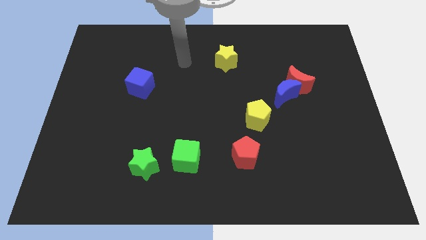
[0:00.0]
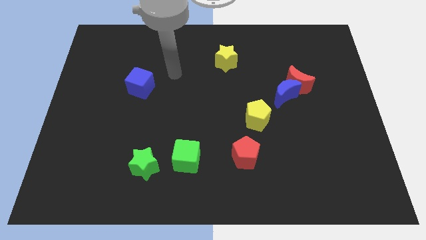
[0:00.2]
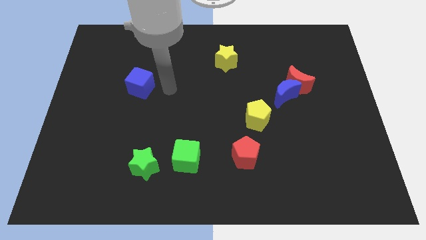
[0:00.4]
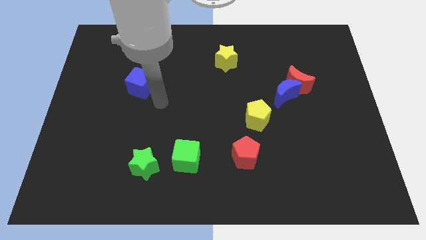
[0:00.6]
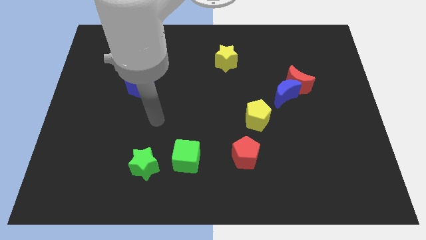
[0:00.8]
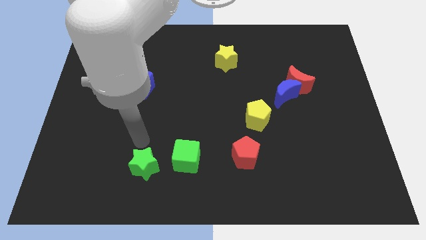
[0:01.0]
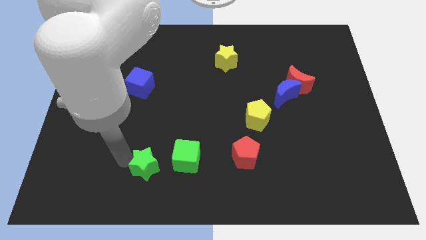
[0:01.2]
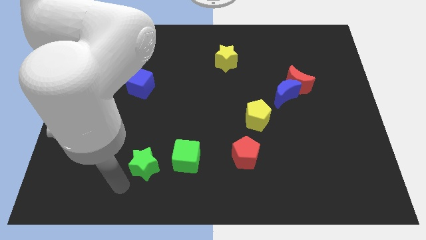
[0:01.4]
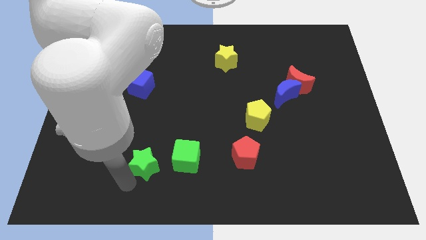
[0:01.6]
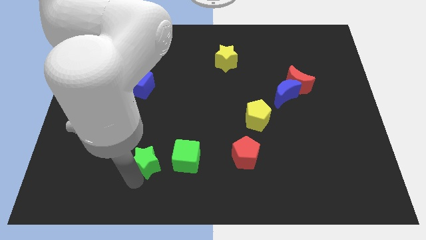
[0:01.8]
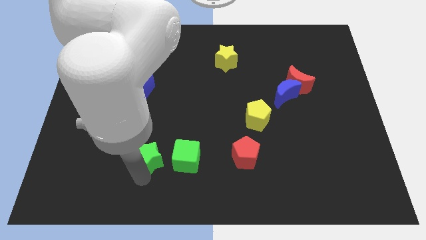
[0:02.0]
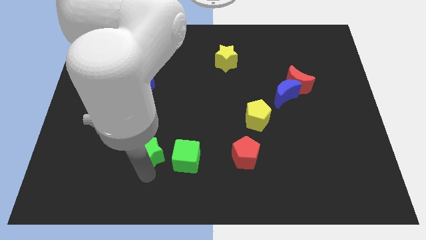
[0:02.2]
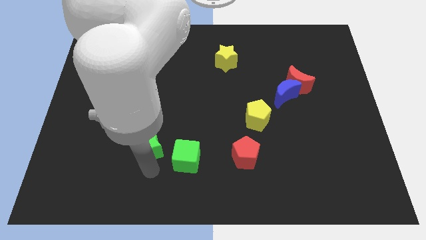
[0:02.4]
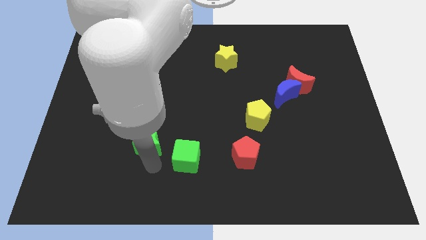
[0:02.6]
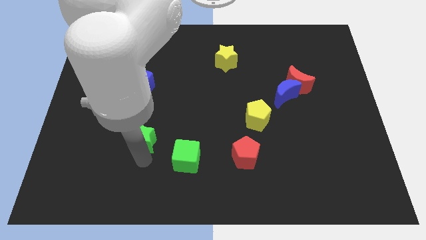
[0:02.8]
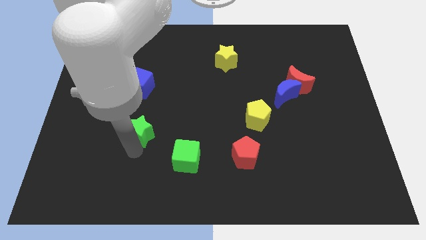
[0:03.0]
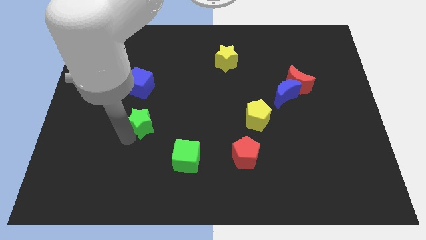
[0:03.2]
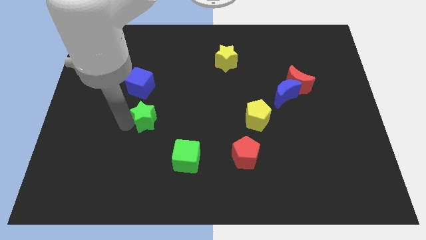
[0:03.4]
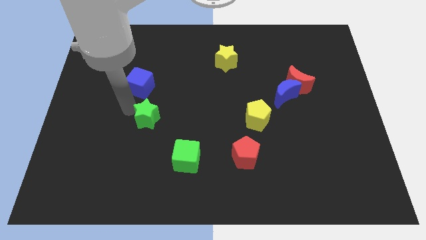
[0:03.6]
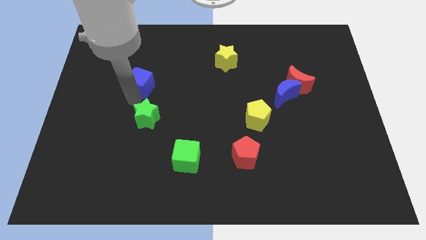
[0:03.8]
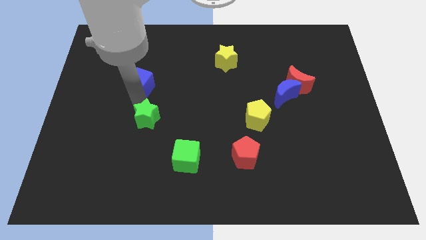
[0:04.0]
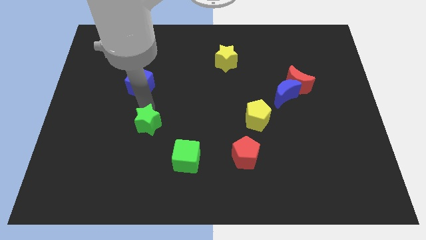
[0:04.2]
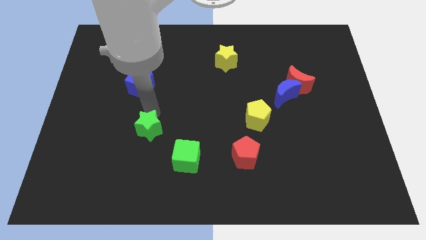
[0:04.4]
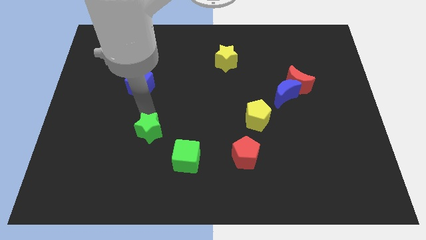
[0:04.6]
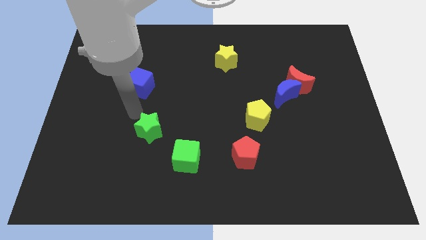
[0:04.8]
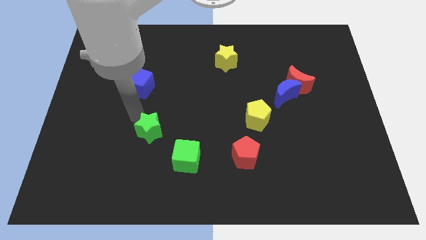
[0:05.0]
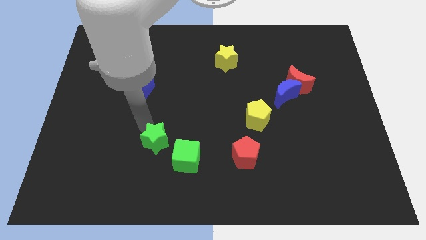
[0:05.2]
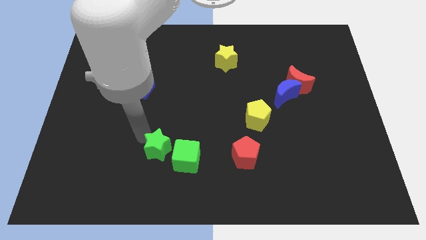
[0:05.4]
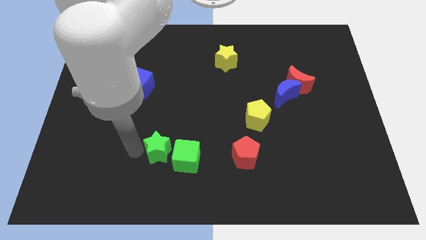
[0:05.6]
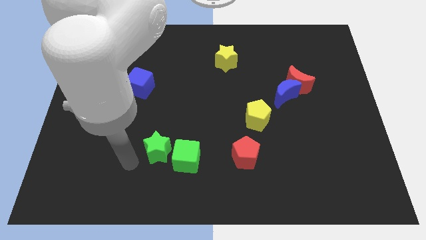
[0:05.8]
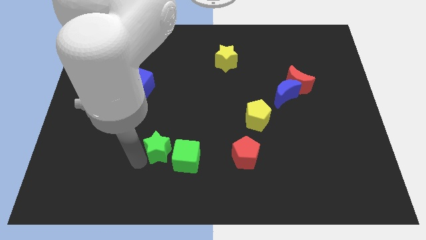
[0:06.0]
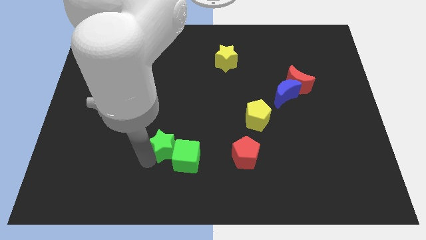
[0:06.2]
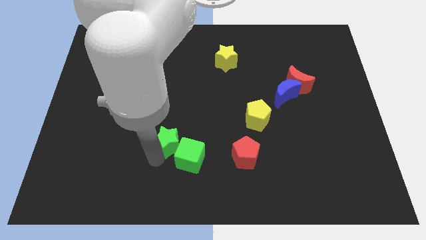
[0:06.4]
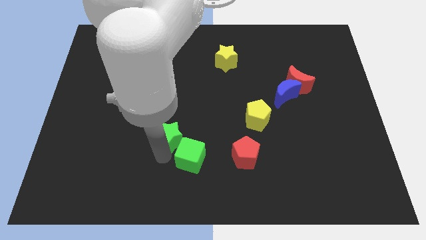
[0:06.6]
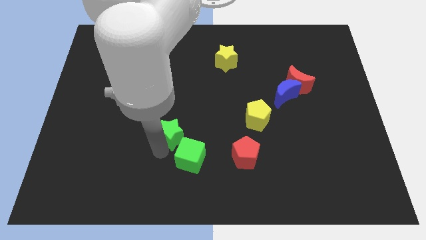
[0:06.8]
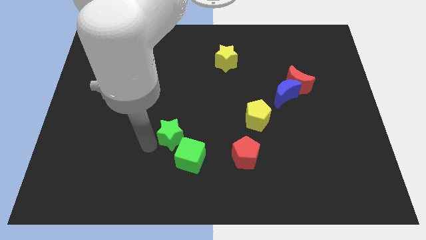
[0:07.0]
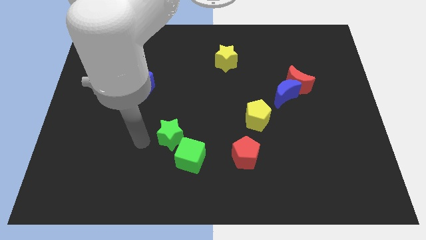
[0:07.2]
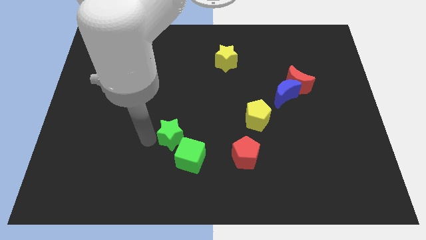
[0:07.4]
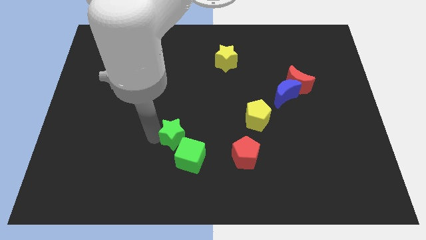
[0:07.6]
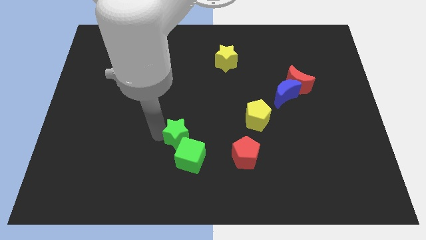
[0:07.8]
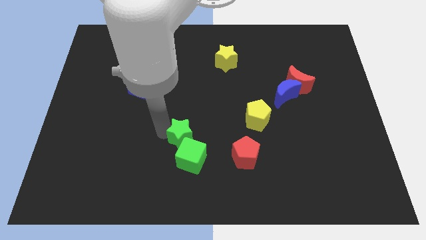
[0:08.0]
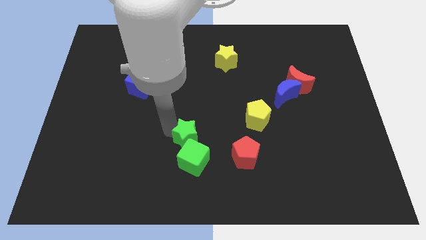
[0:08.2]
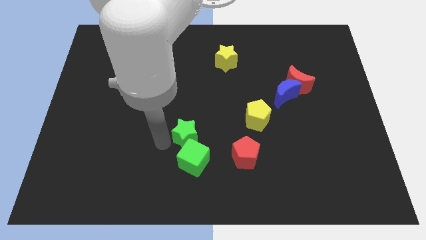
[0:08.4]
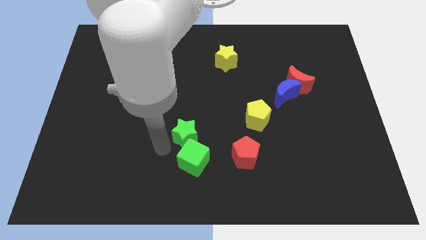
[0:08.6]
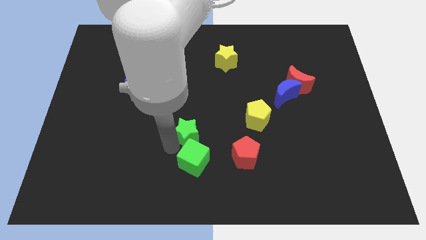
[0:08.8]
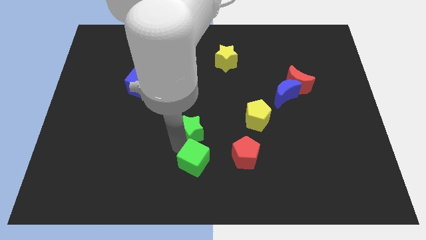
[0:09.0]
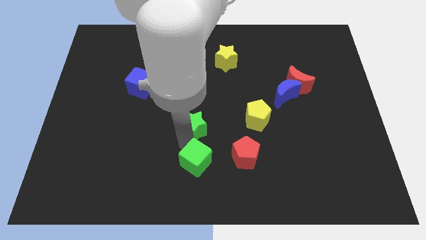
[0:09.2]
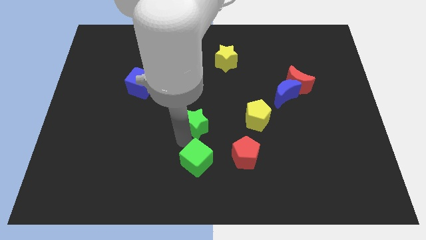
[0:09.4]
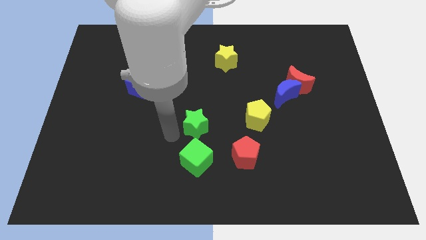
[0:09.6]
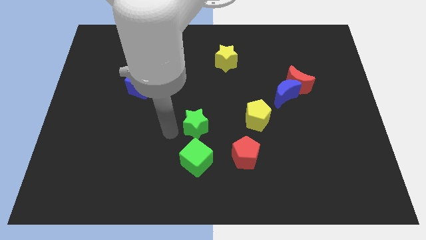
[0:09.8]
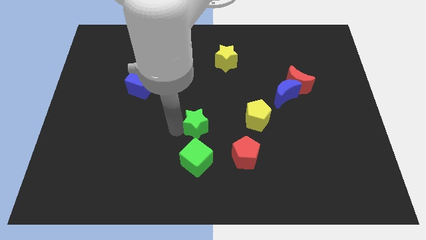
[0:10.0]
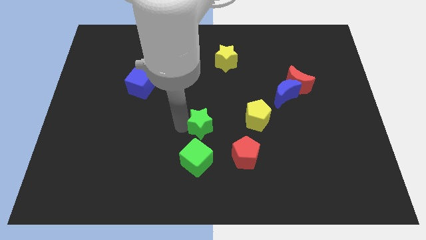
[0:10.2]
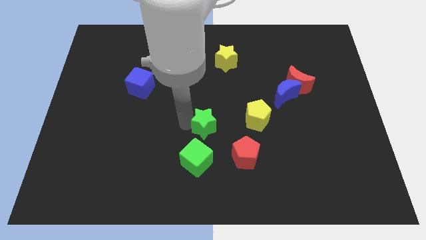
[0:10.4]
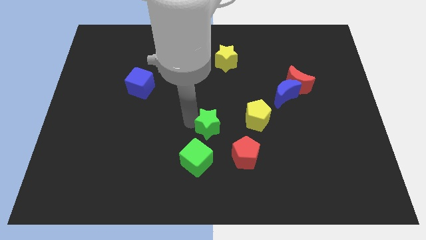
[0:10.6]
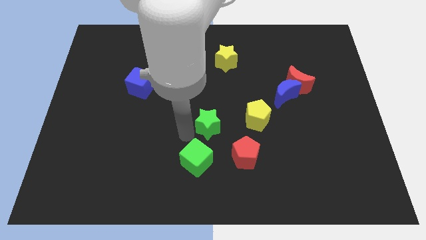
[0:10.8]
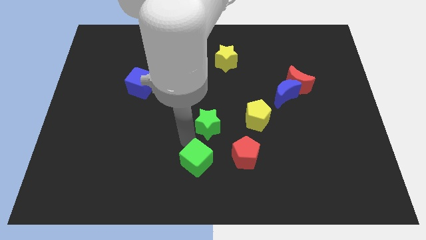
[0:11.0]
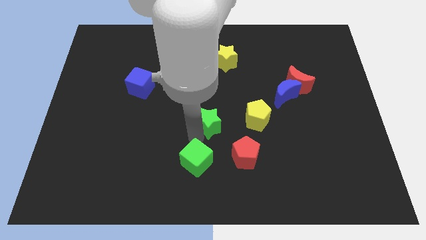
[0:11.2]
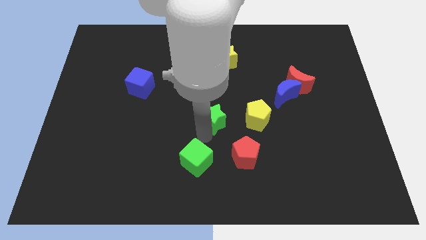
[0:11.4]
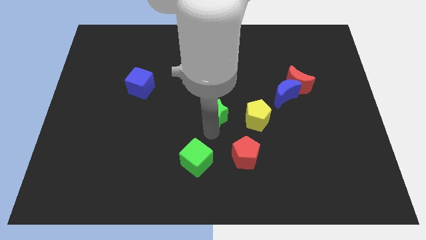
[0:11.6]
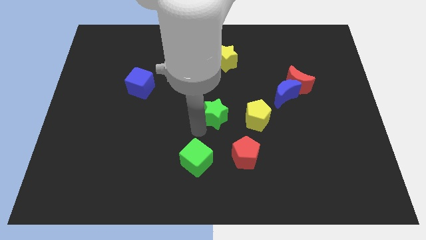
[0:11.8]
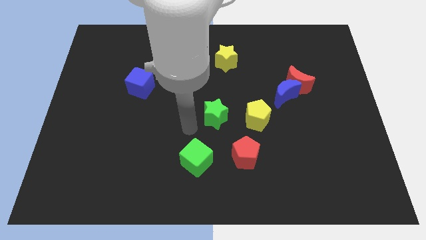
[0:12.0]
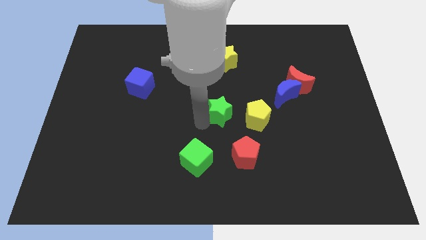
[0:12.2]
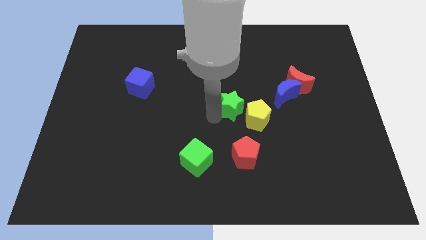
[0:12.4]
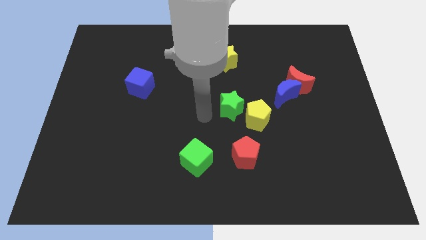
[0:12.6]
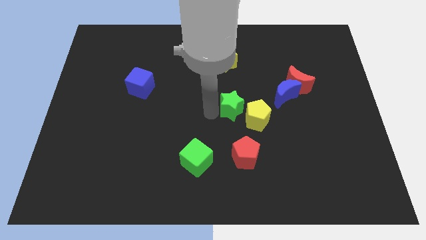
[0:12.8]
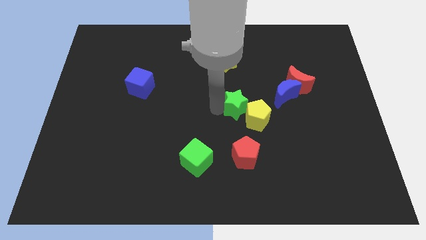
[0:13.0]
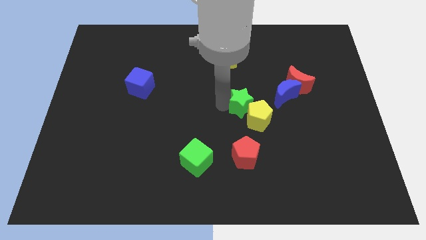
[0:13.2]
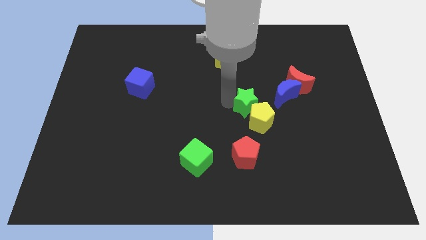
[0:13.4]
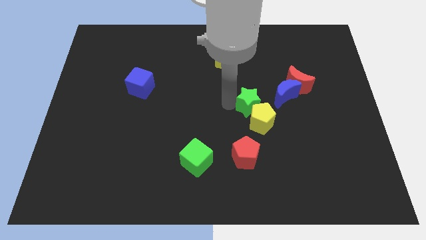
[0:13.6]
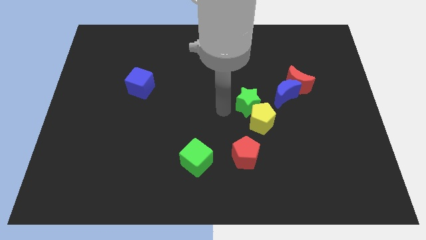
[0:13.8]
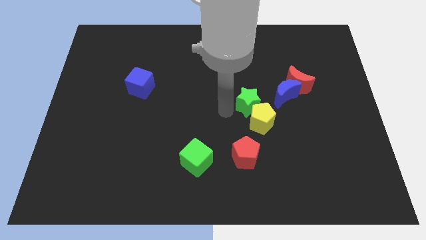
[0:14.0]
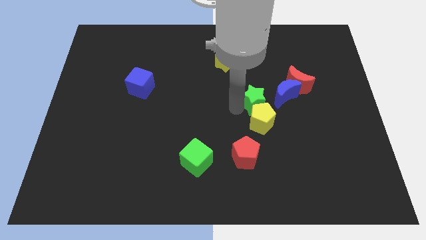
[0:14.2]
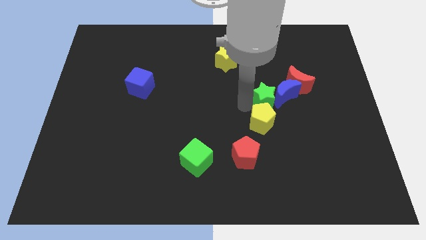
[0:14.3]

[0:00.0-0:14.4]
slide the green star close to the blue moon

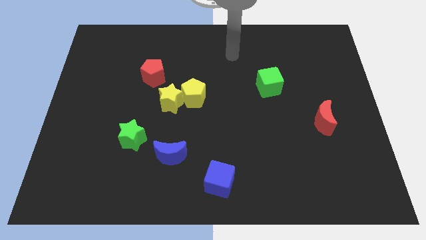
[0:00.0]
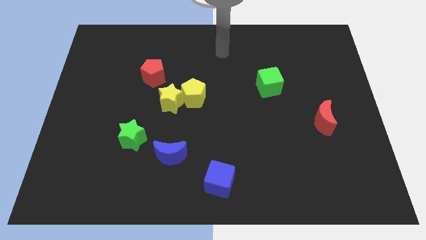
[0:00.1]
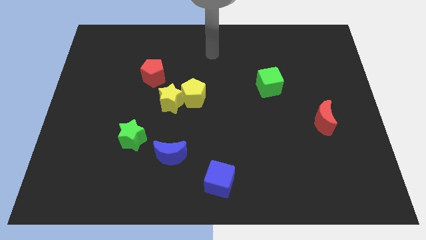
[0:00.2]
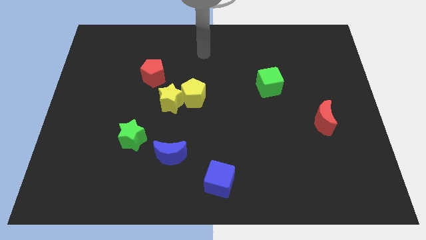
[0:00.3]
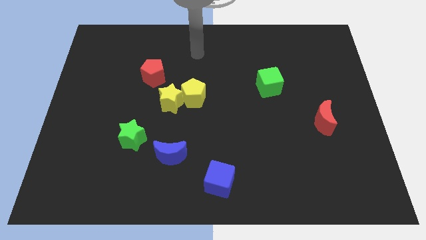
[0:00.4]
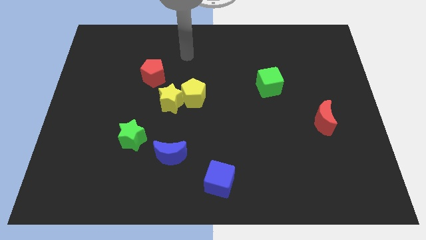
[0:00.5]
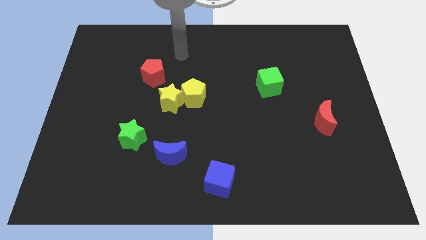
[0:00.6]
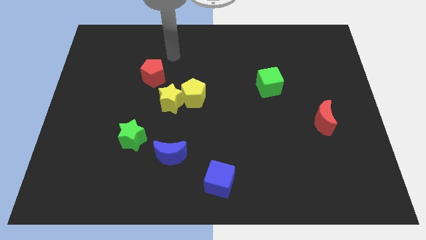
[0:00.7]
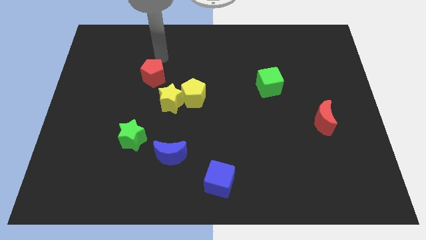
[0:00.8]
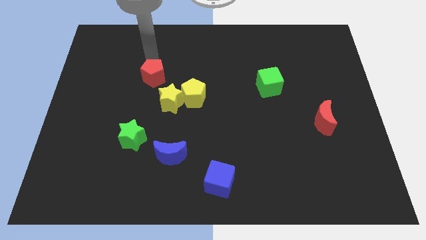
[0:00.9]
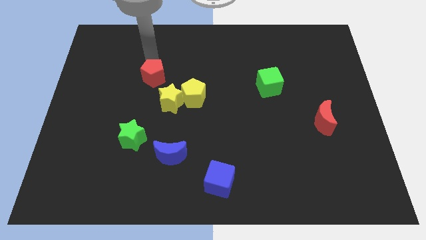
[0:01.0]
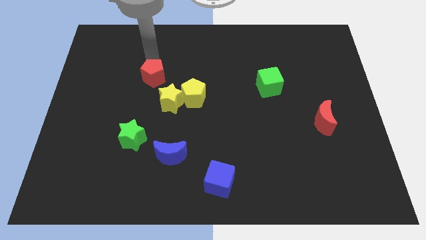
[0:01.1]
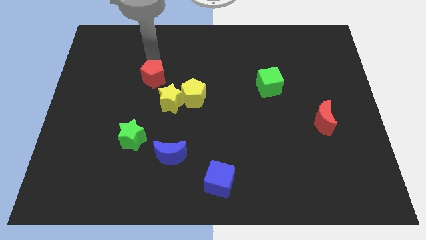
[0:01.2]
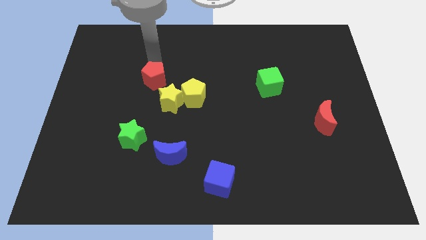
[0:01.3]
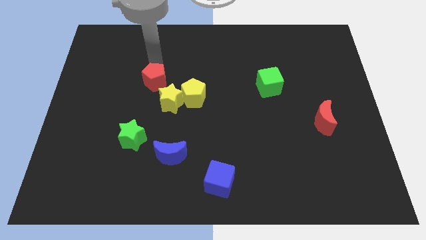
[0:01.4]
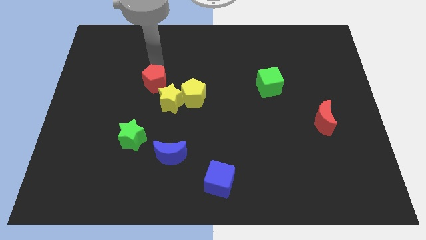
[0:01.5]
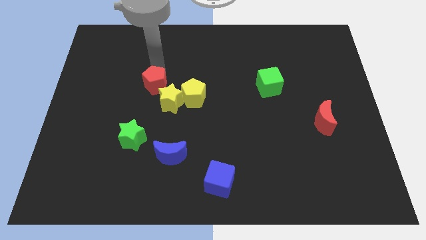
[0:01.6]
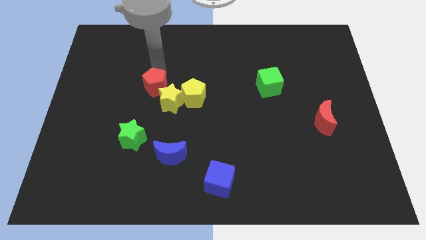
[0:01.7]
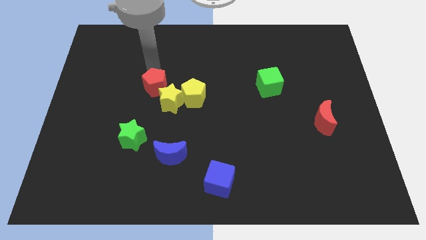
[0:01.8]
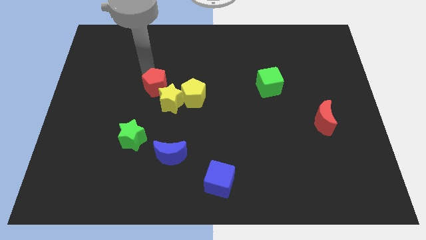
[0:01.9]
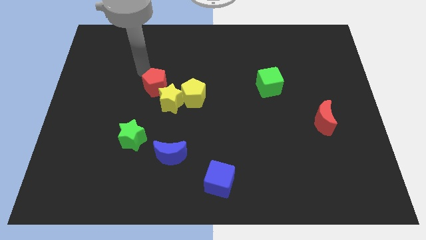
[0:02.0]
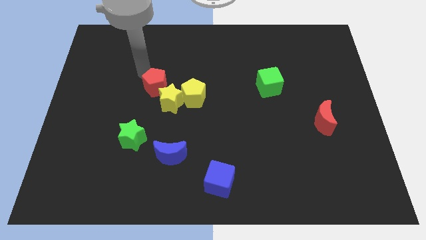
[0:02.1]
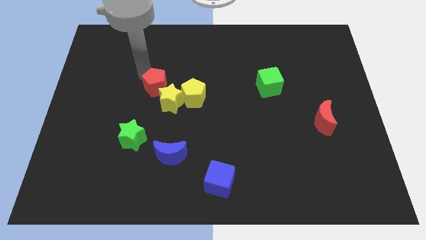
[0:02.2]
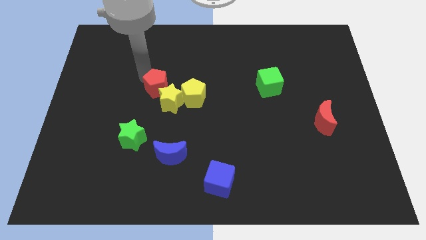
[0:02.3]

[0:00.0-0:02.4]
push the red pentagon close to the yellow star
